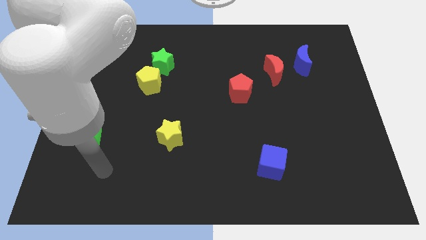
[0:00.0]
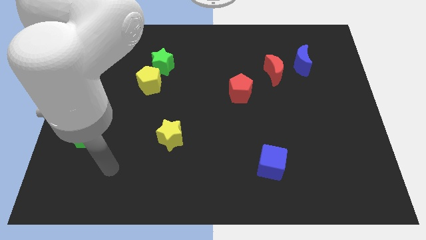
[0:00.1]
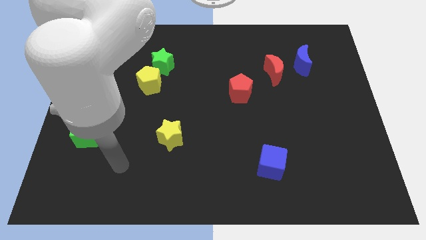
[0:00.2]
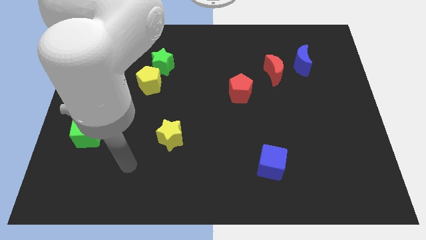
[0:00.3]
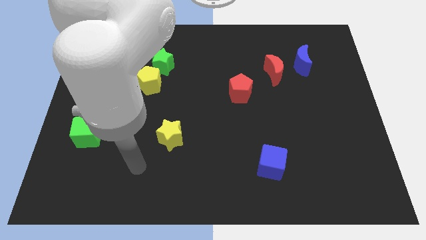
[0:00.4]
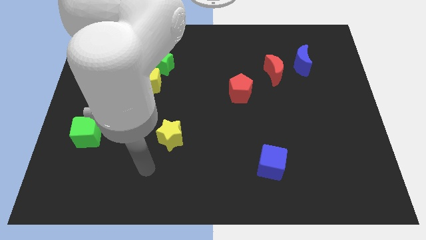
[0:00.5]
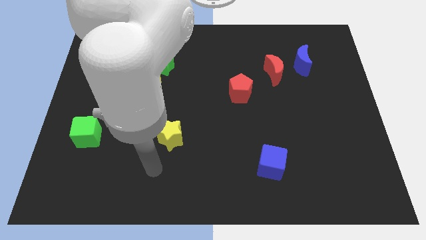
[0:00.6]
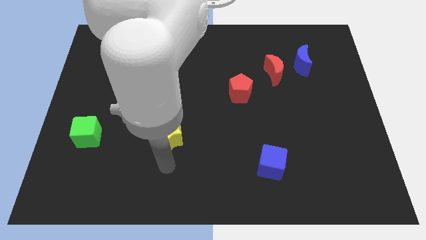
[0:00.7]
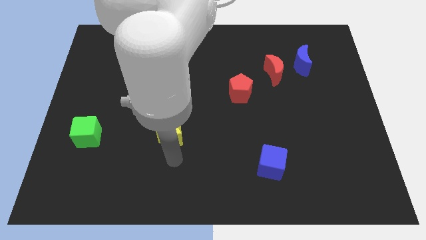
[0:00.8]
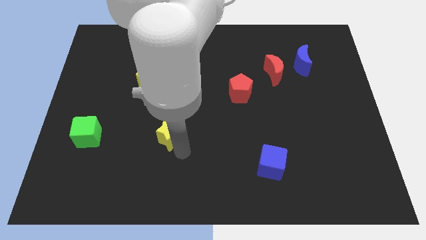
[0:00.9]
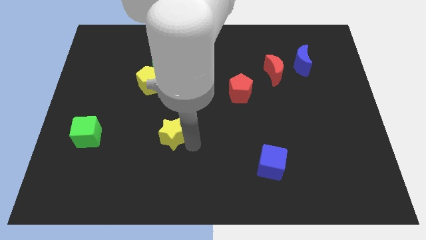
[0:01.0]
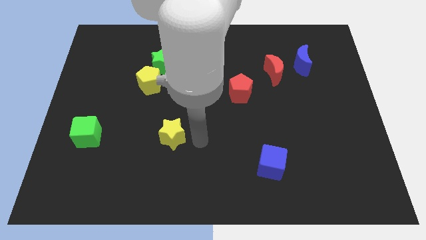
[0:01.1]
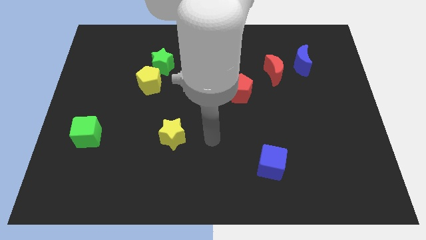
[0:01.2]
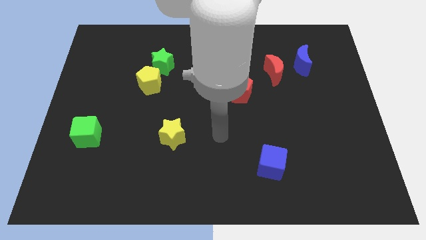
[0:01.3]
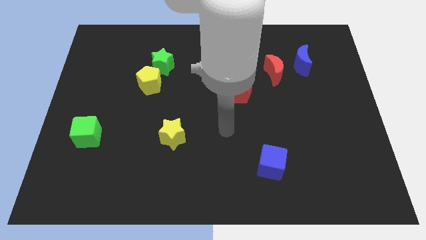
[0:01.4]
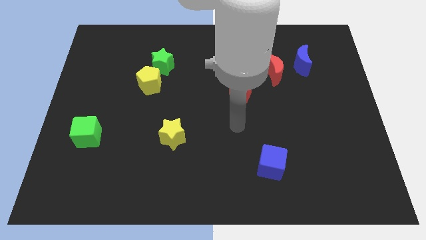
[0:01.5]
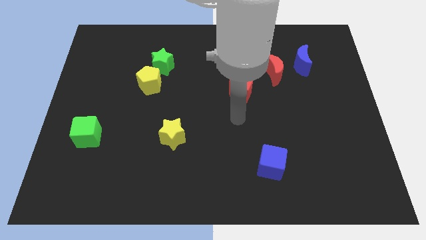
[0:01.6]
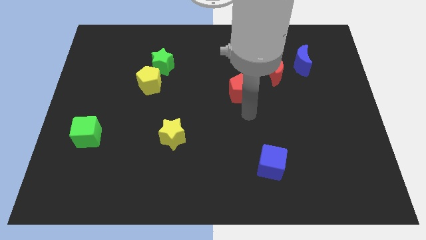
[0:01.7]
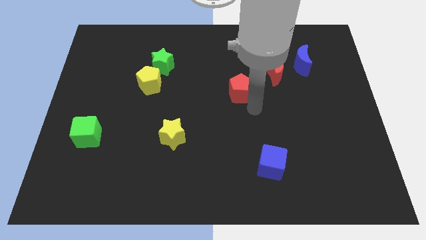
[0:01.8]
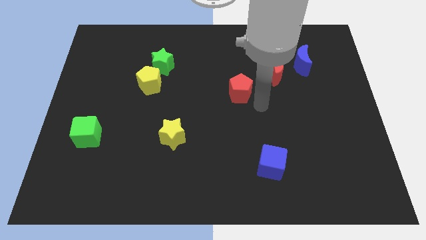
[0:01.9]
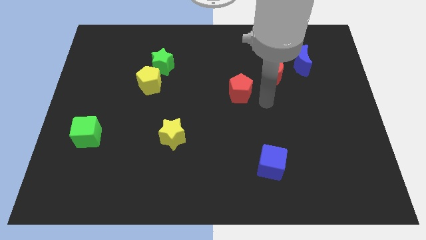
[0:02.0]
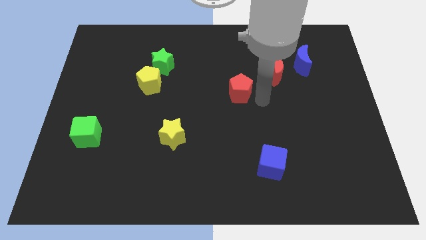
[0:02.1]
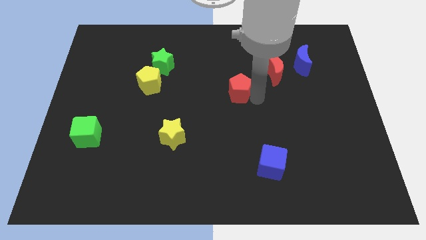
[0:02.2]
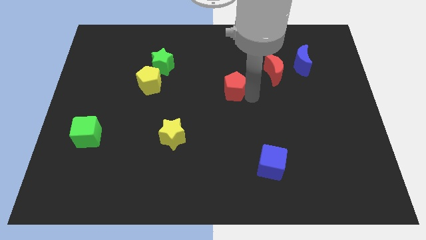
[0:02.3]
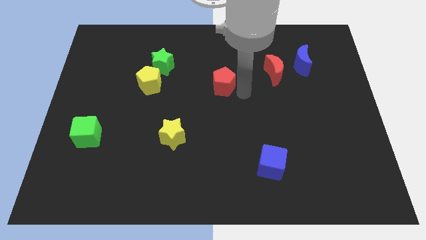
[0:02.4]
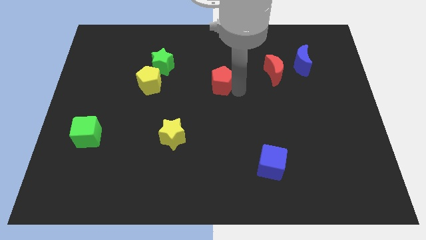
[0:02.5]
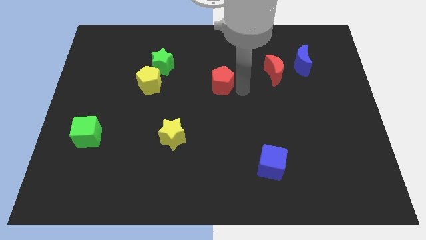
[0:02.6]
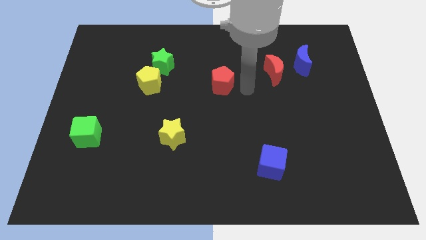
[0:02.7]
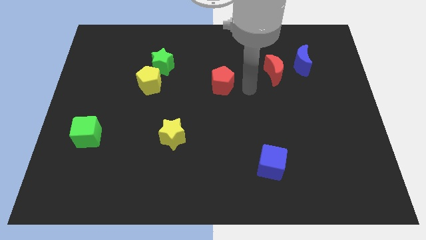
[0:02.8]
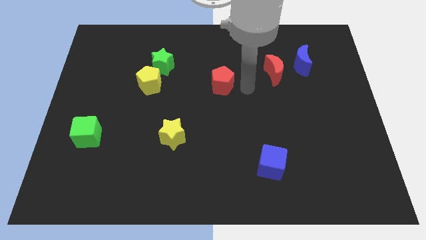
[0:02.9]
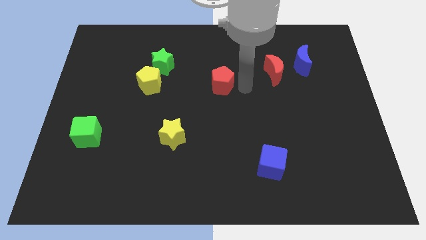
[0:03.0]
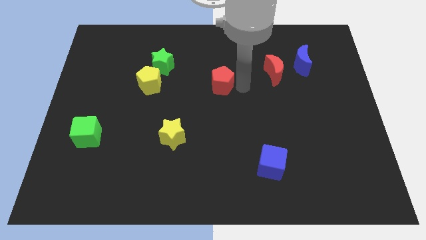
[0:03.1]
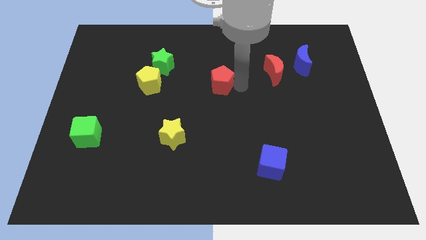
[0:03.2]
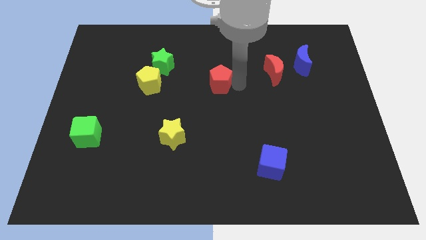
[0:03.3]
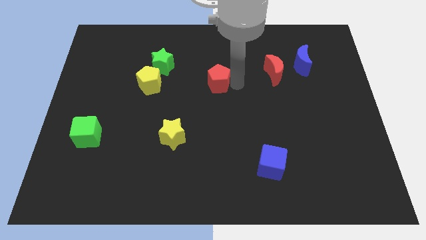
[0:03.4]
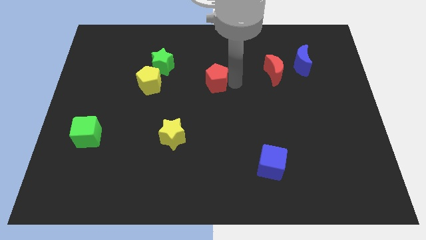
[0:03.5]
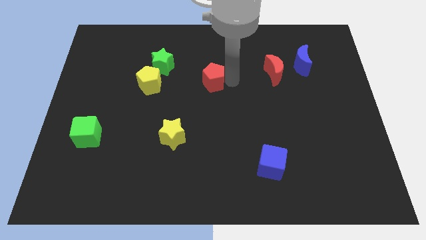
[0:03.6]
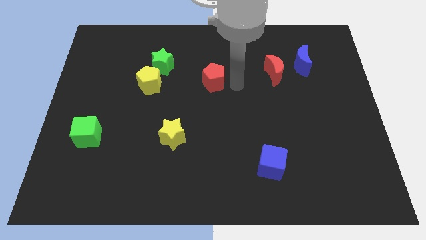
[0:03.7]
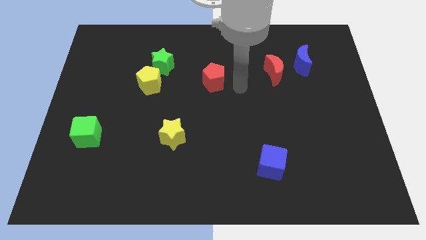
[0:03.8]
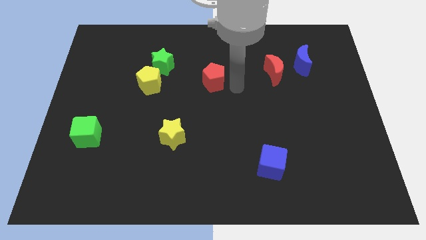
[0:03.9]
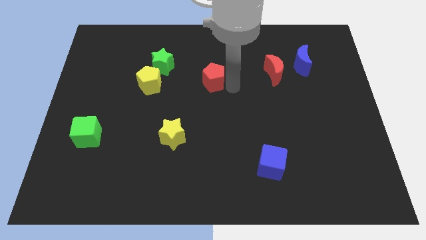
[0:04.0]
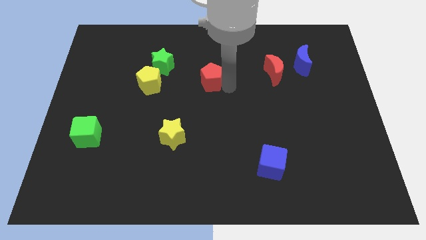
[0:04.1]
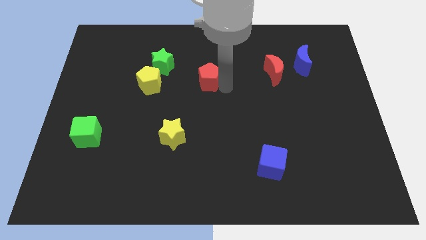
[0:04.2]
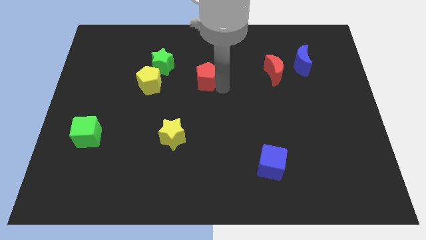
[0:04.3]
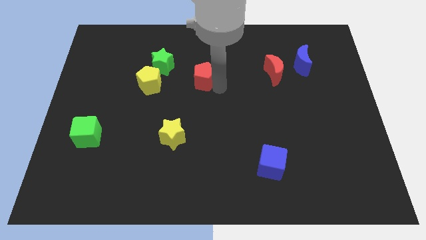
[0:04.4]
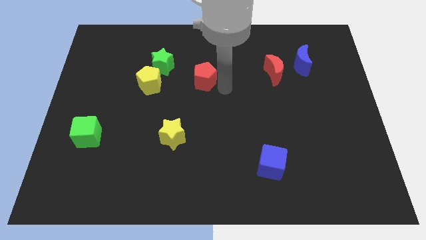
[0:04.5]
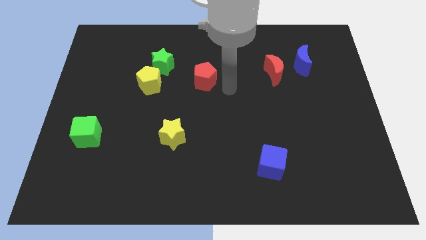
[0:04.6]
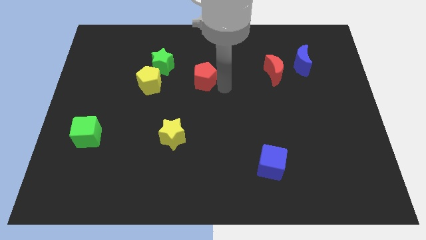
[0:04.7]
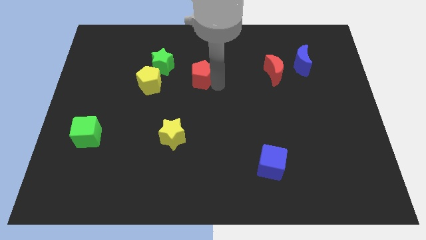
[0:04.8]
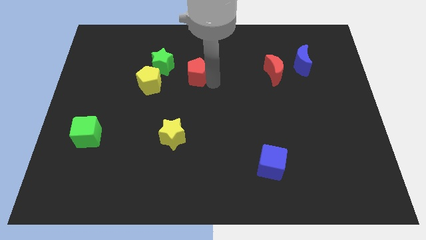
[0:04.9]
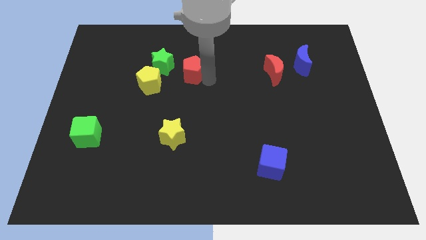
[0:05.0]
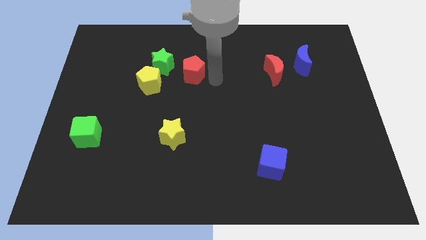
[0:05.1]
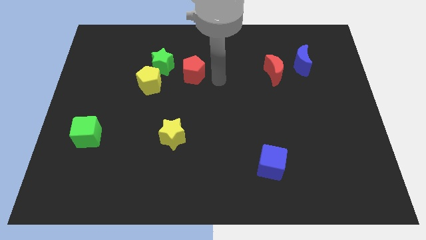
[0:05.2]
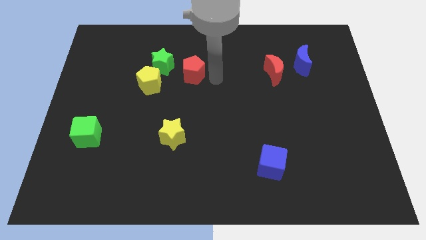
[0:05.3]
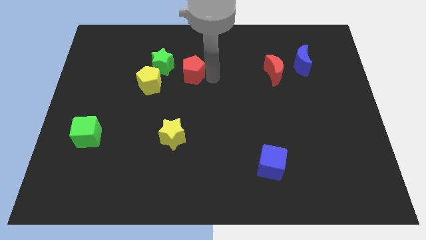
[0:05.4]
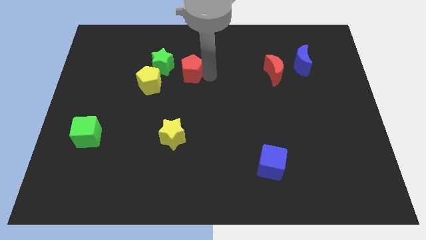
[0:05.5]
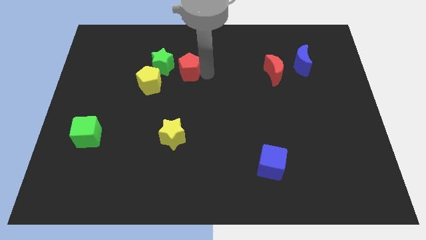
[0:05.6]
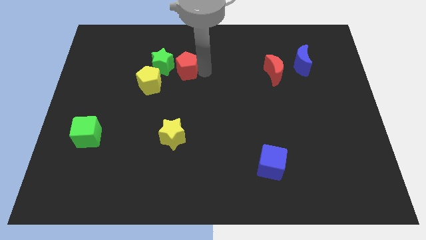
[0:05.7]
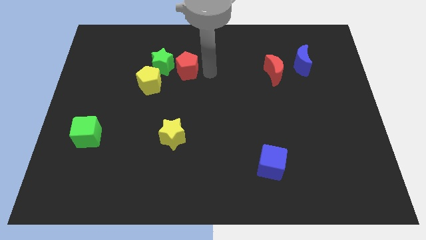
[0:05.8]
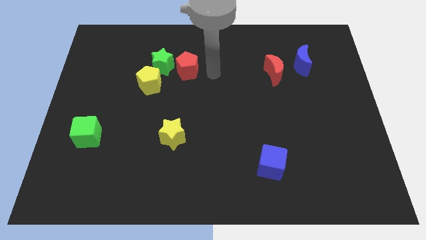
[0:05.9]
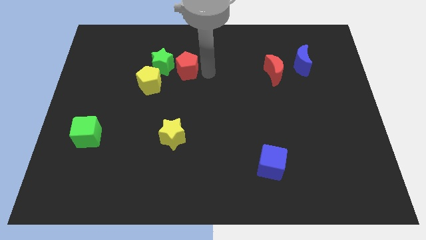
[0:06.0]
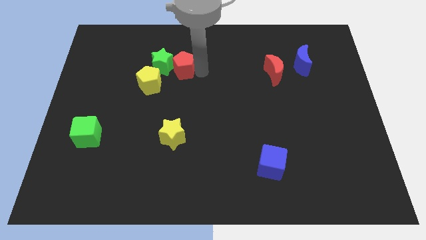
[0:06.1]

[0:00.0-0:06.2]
slide the red pentagon close to the green star

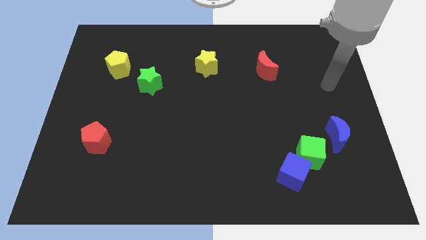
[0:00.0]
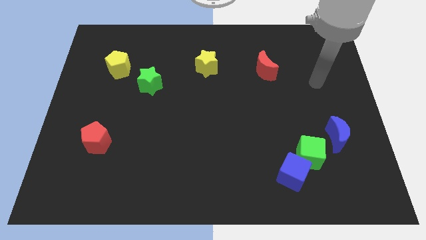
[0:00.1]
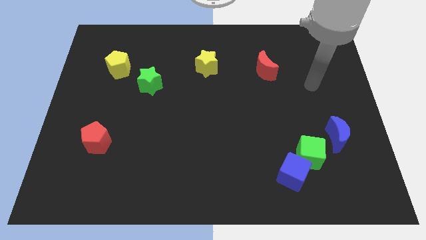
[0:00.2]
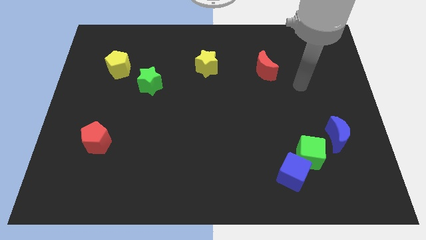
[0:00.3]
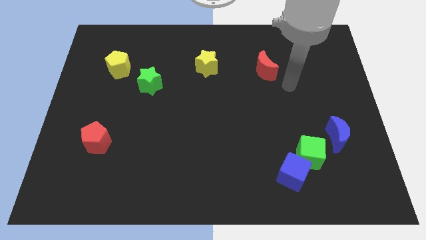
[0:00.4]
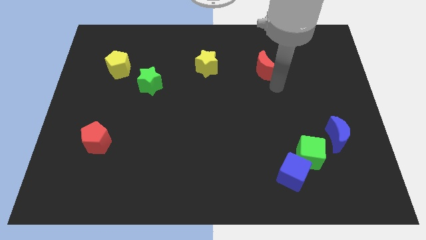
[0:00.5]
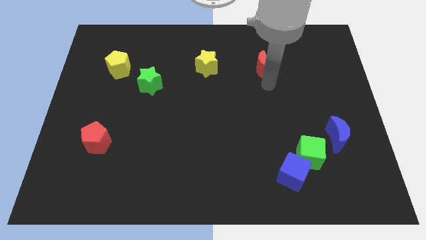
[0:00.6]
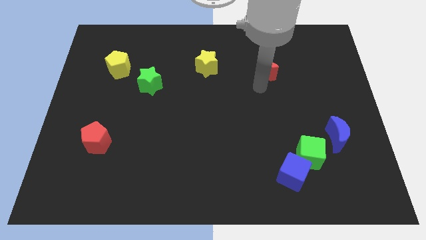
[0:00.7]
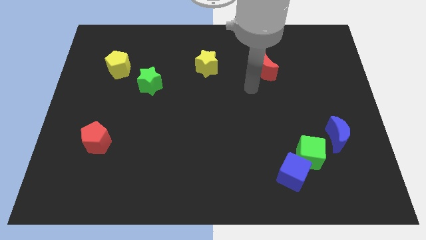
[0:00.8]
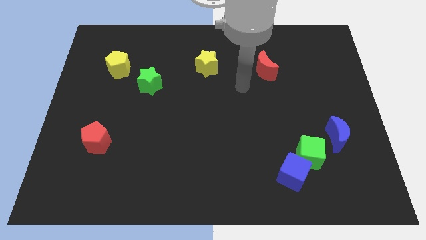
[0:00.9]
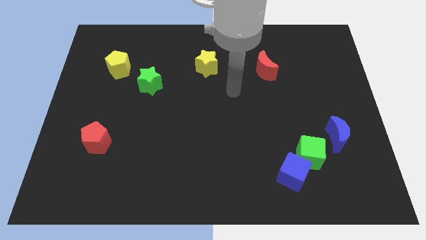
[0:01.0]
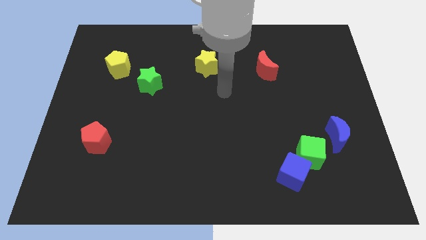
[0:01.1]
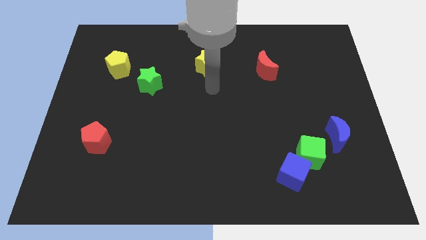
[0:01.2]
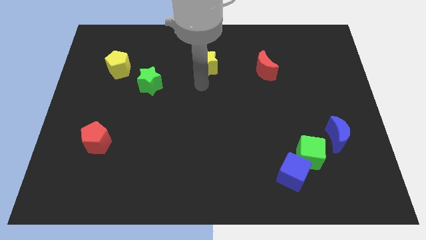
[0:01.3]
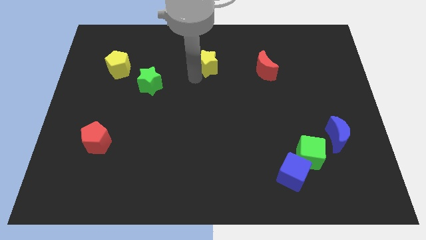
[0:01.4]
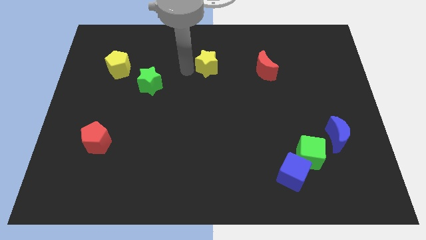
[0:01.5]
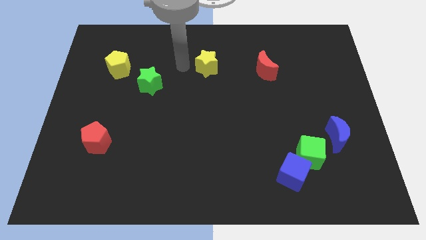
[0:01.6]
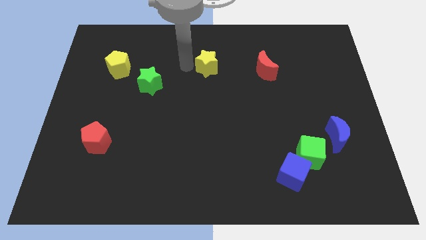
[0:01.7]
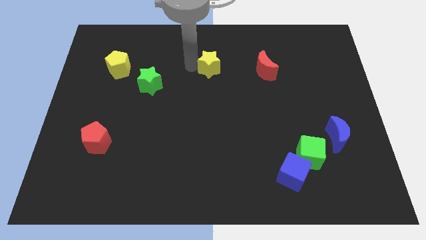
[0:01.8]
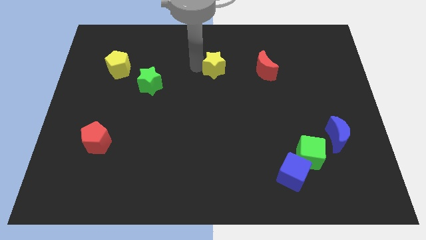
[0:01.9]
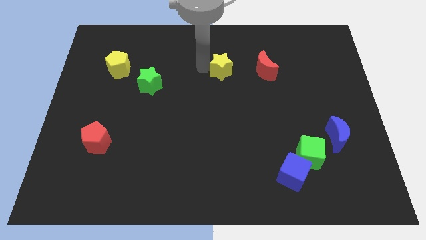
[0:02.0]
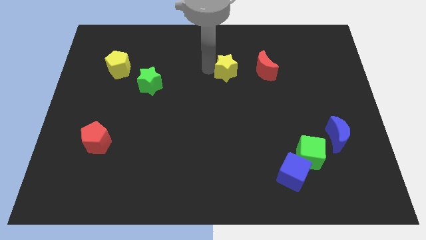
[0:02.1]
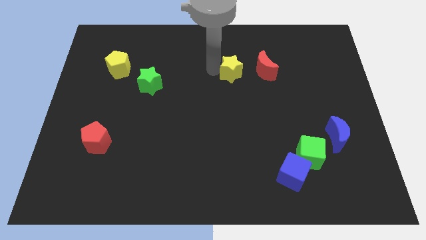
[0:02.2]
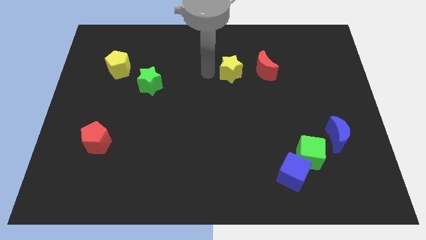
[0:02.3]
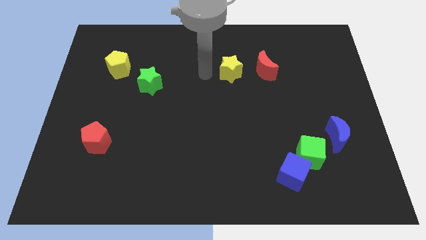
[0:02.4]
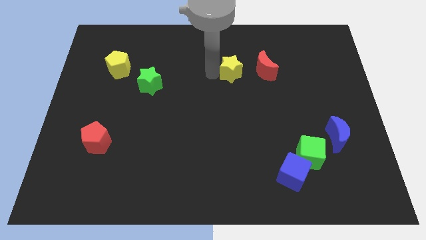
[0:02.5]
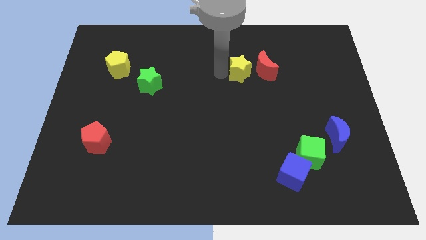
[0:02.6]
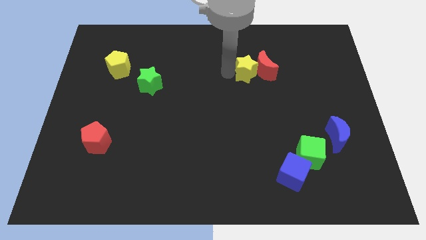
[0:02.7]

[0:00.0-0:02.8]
put the yellow star next to the red moon
